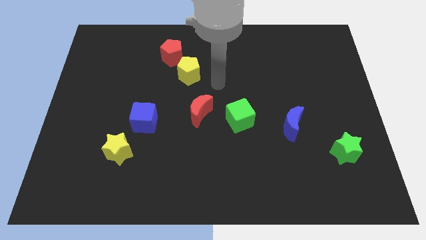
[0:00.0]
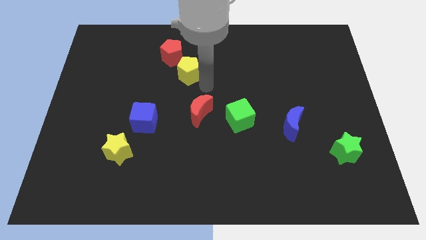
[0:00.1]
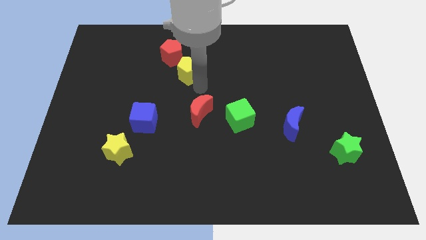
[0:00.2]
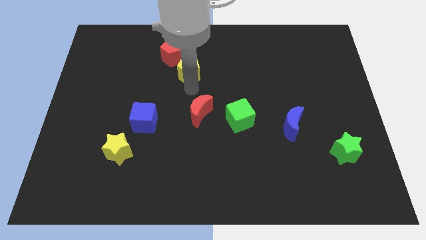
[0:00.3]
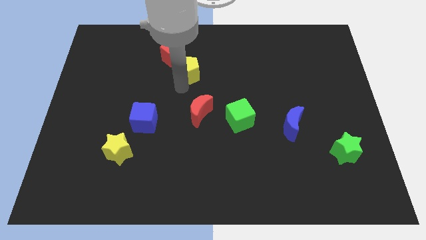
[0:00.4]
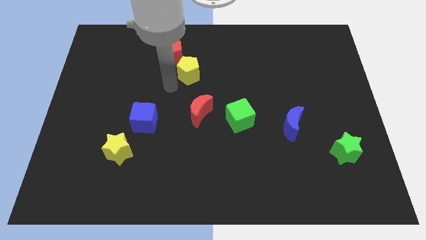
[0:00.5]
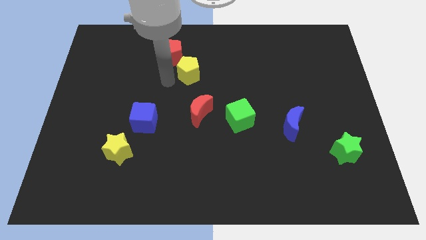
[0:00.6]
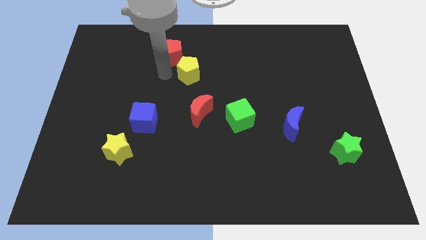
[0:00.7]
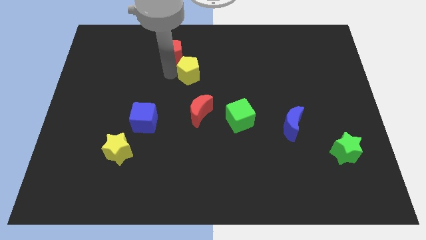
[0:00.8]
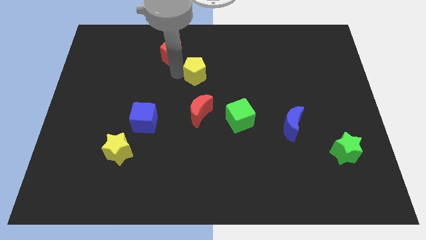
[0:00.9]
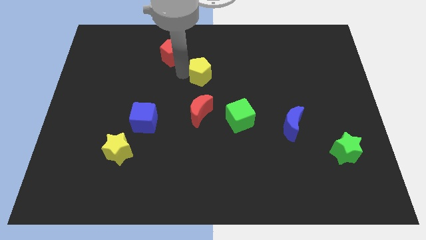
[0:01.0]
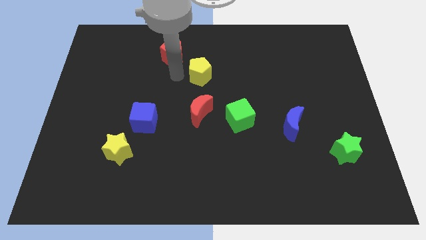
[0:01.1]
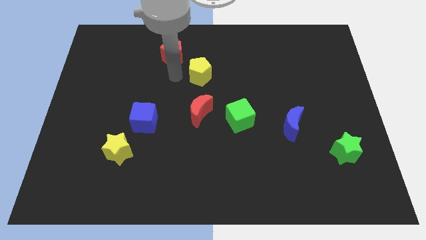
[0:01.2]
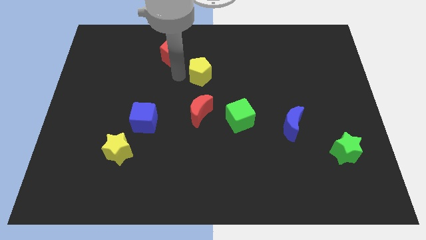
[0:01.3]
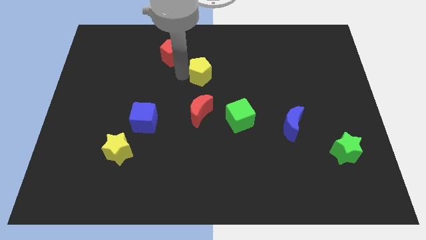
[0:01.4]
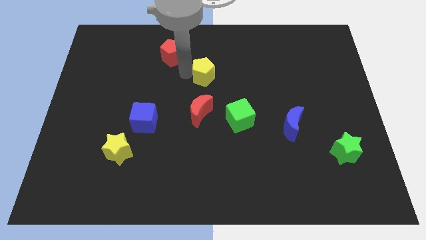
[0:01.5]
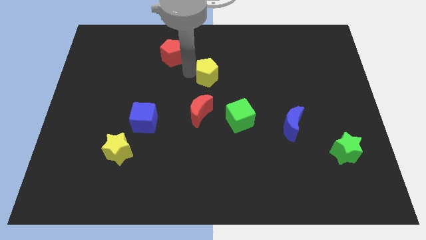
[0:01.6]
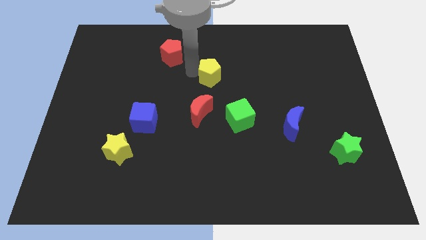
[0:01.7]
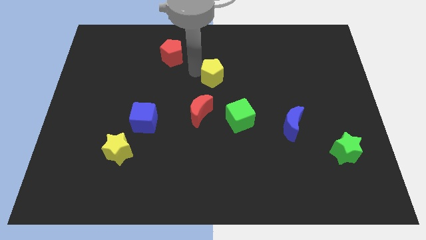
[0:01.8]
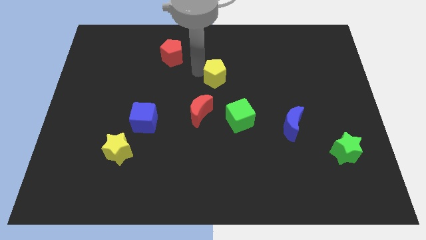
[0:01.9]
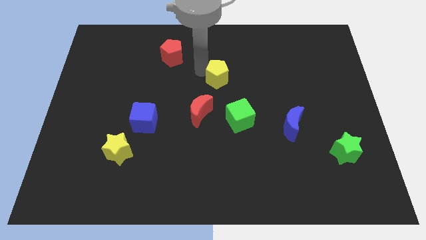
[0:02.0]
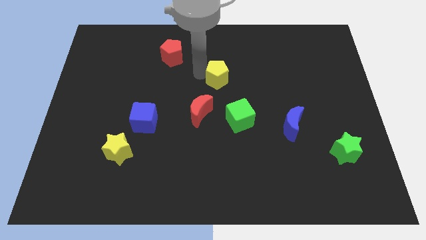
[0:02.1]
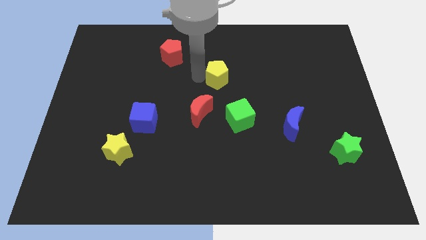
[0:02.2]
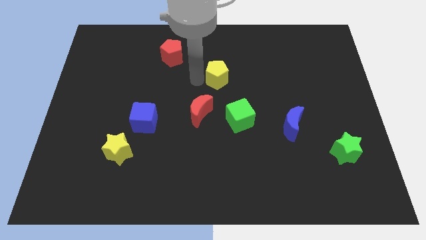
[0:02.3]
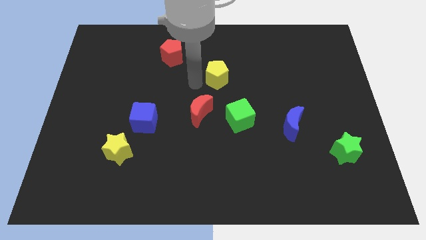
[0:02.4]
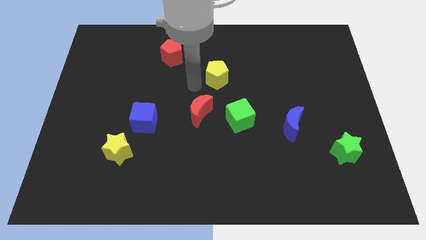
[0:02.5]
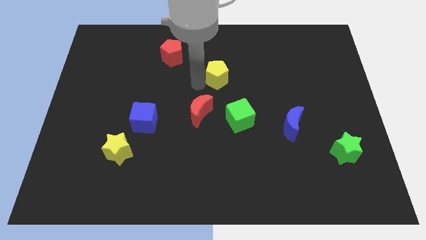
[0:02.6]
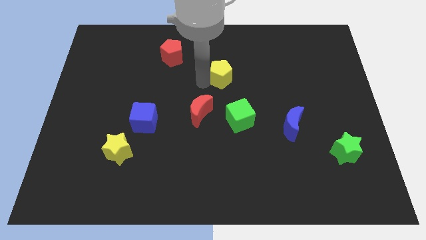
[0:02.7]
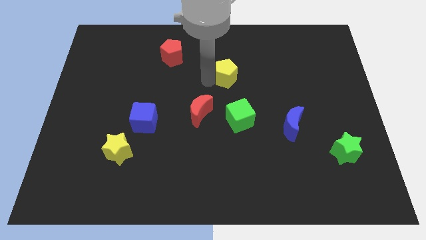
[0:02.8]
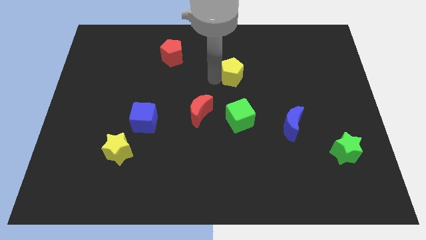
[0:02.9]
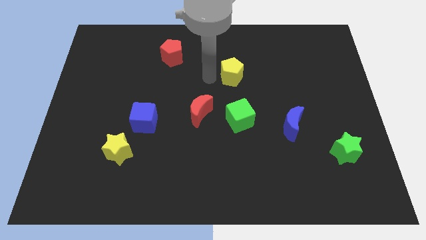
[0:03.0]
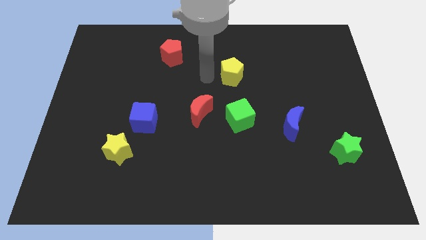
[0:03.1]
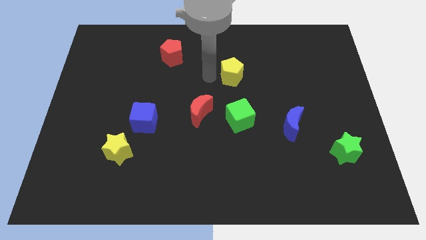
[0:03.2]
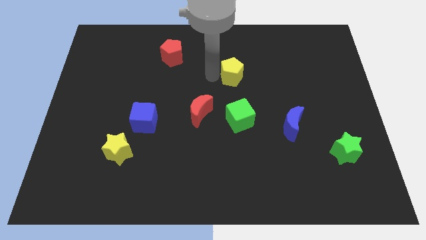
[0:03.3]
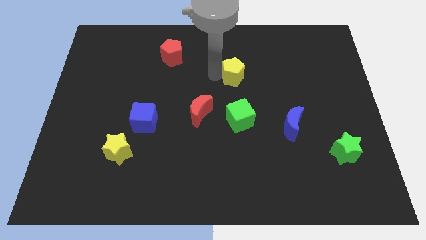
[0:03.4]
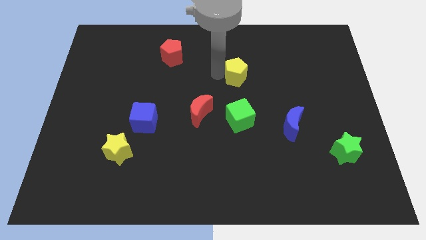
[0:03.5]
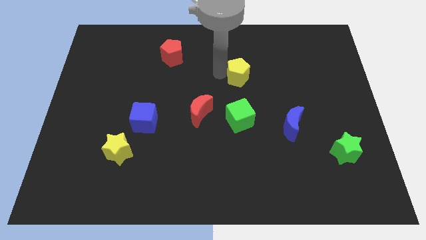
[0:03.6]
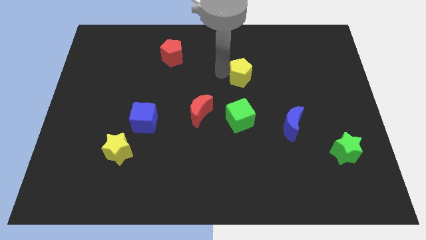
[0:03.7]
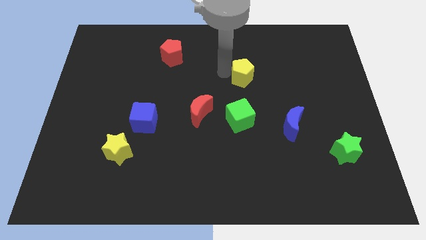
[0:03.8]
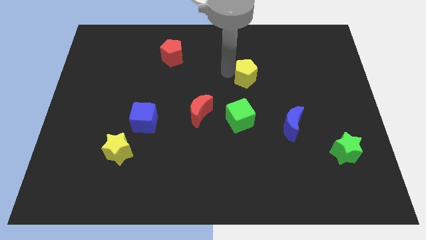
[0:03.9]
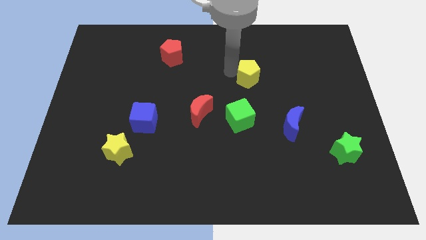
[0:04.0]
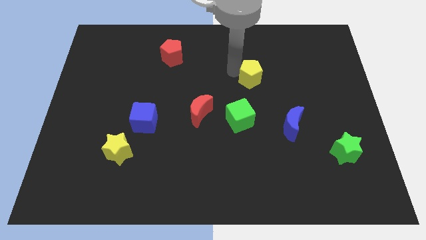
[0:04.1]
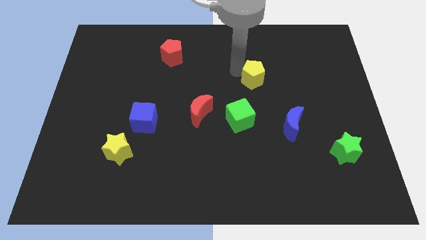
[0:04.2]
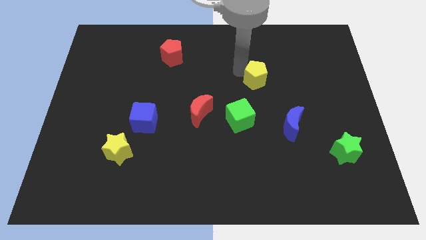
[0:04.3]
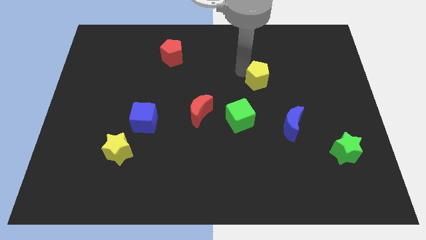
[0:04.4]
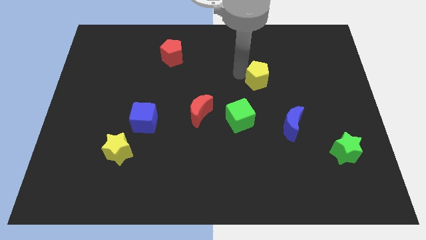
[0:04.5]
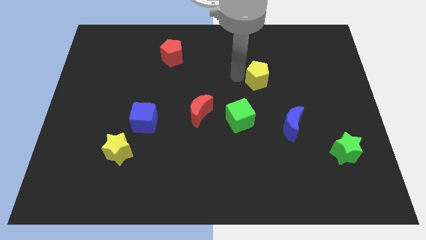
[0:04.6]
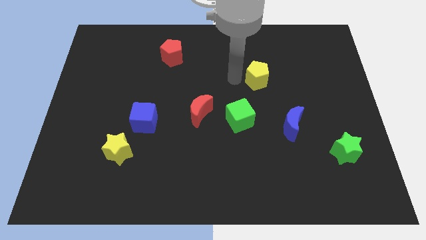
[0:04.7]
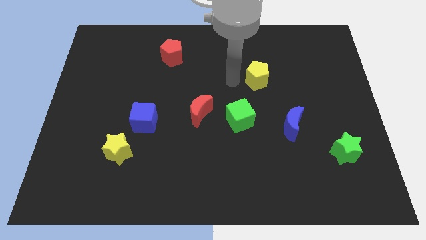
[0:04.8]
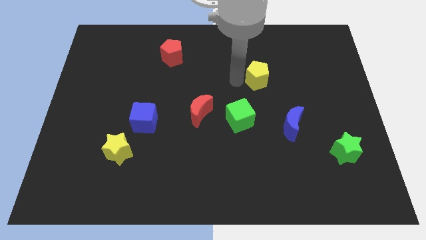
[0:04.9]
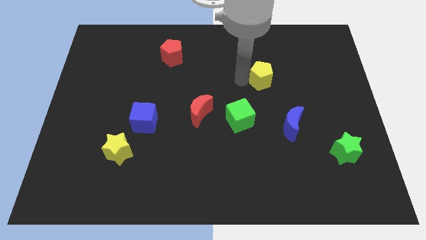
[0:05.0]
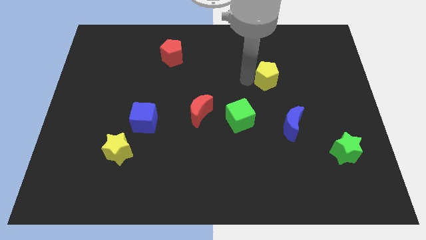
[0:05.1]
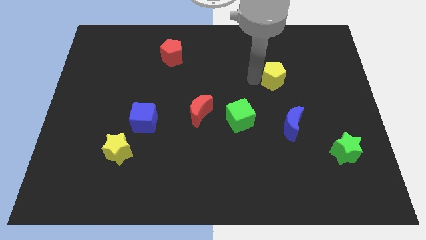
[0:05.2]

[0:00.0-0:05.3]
move the yellow pentagon right

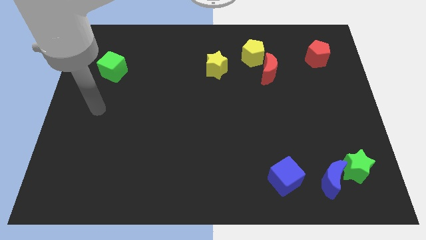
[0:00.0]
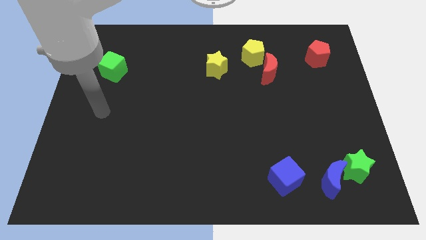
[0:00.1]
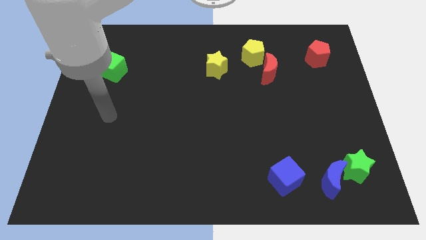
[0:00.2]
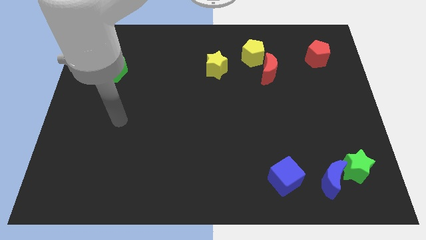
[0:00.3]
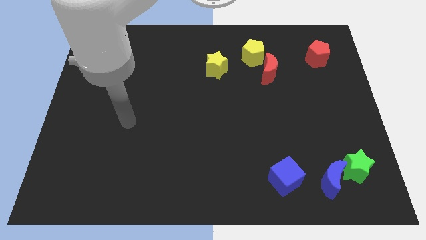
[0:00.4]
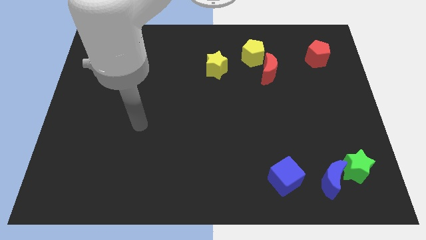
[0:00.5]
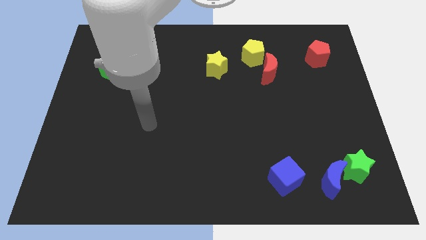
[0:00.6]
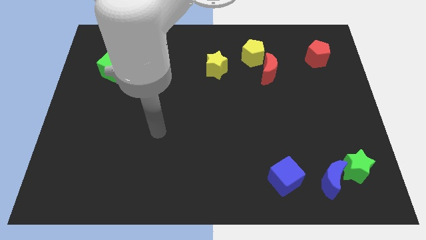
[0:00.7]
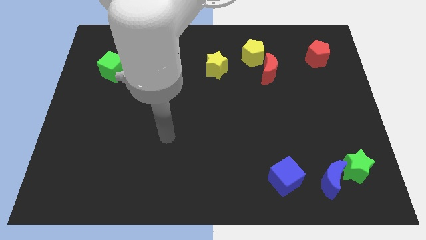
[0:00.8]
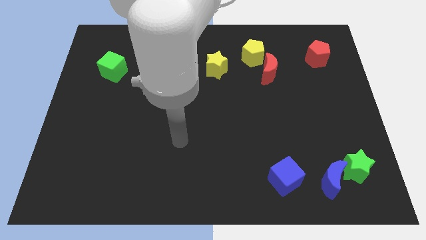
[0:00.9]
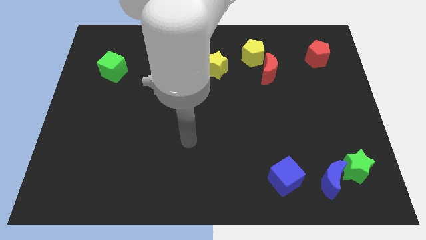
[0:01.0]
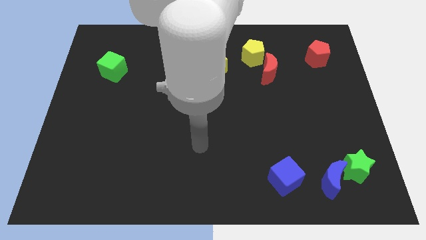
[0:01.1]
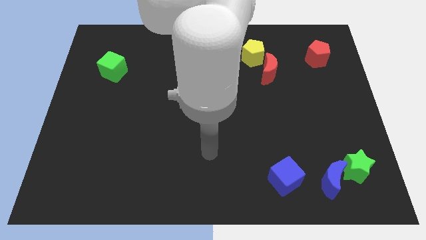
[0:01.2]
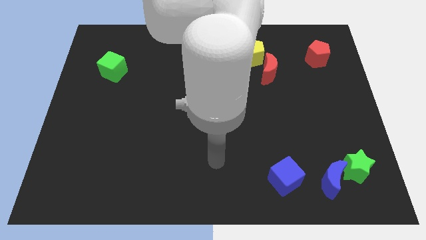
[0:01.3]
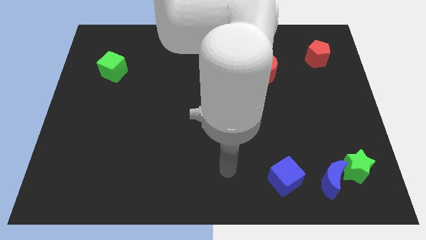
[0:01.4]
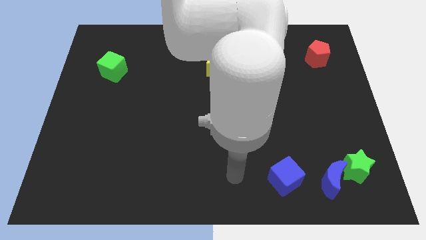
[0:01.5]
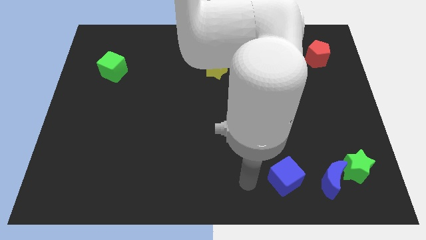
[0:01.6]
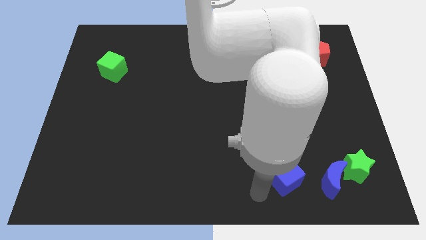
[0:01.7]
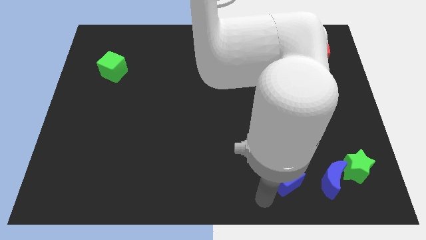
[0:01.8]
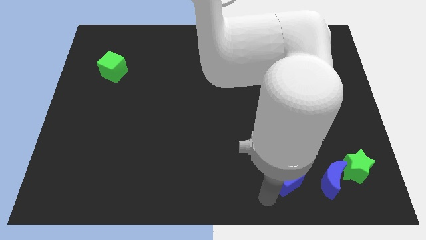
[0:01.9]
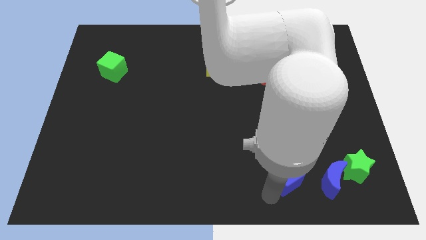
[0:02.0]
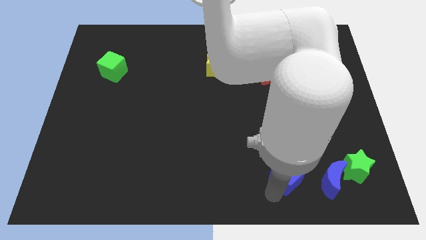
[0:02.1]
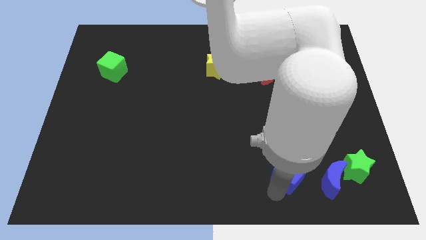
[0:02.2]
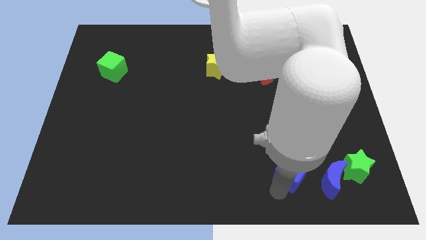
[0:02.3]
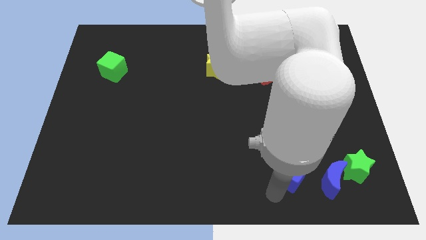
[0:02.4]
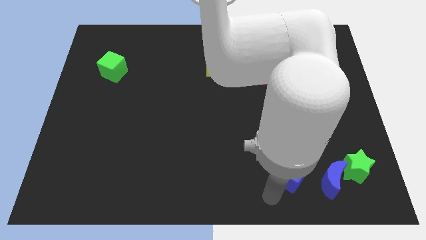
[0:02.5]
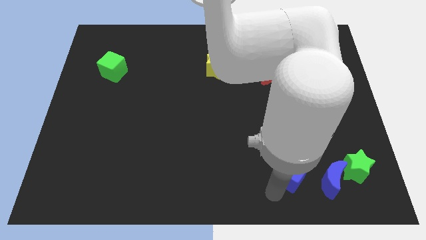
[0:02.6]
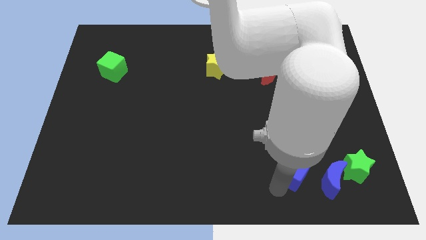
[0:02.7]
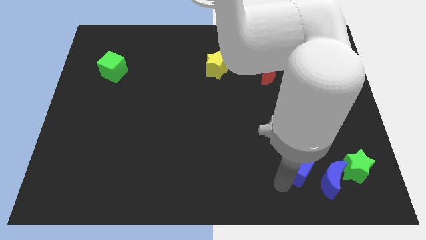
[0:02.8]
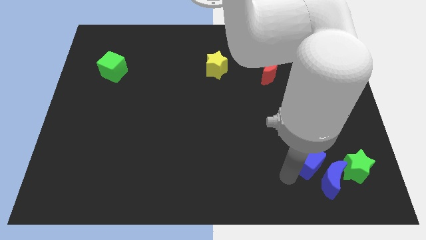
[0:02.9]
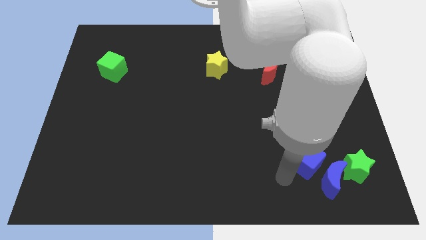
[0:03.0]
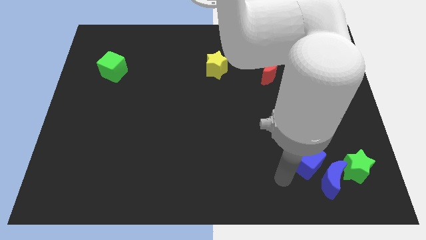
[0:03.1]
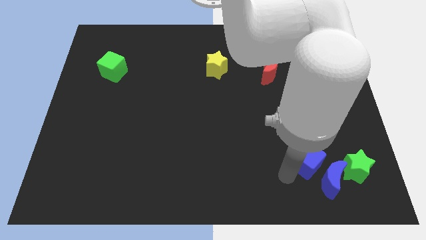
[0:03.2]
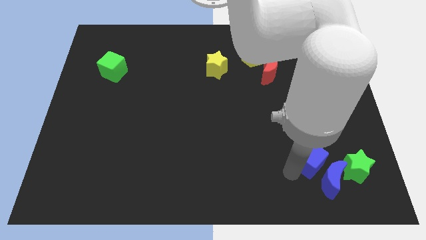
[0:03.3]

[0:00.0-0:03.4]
slide the blue cube a little bit up and then right
